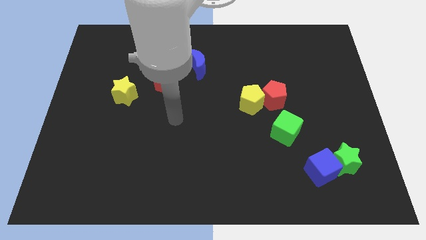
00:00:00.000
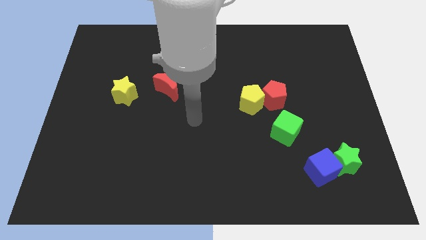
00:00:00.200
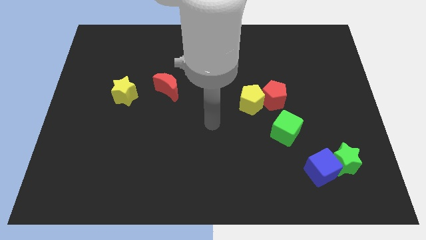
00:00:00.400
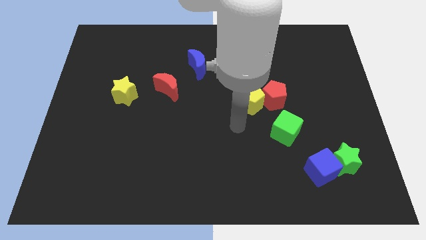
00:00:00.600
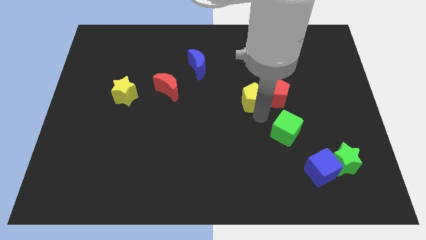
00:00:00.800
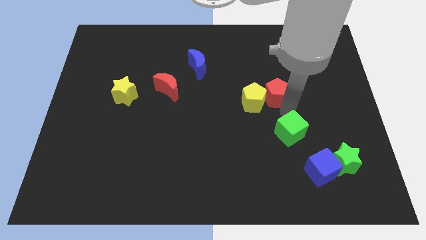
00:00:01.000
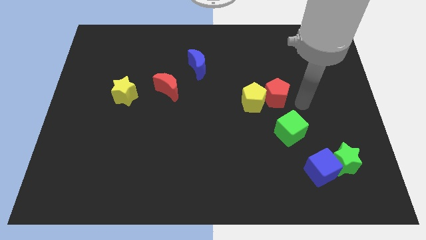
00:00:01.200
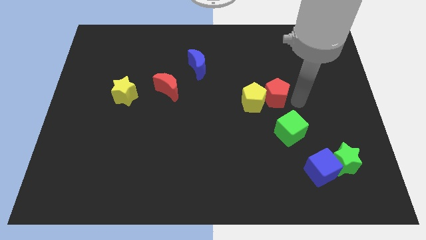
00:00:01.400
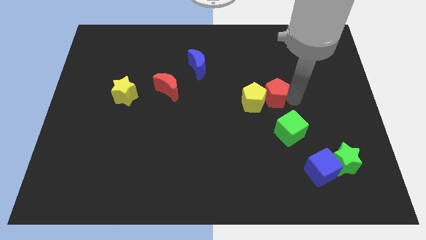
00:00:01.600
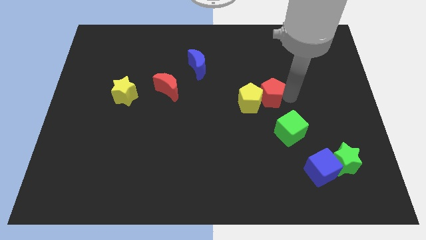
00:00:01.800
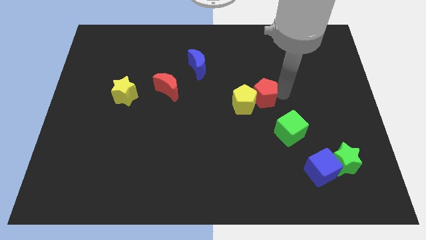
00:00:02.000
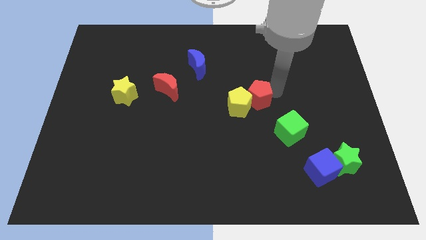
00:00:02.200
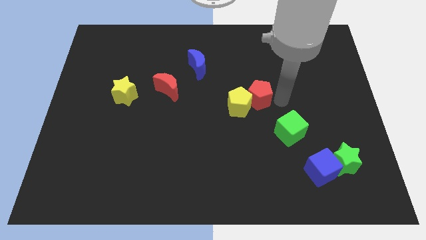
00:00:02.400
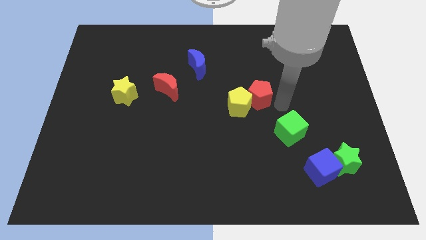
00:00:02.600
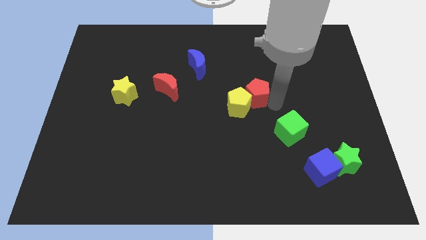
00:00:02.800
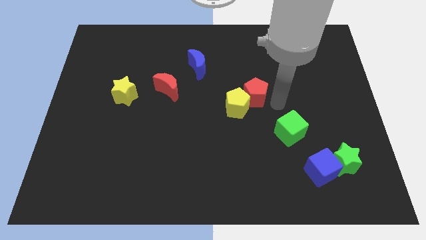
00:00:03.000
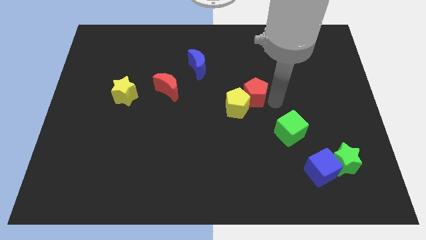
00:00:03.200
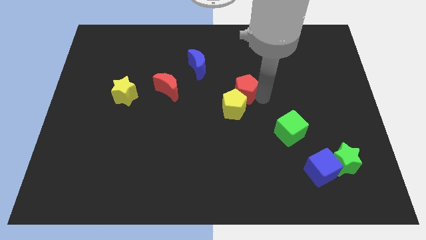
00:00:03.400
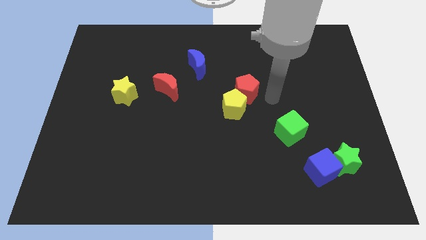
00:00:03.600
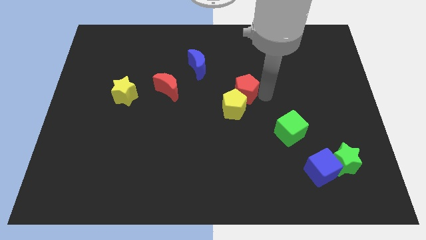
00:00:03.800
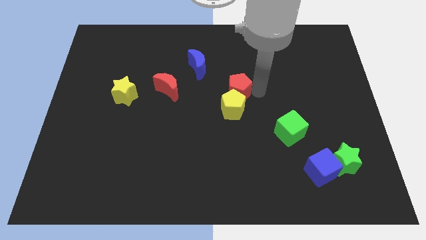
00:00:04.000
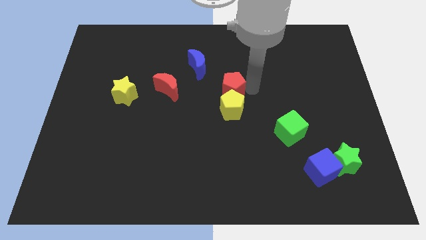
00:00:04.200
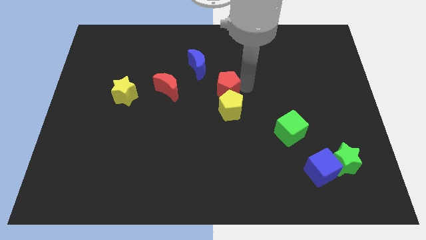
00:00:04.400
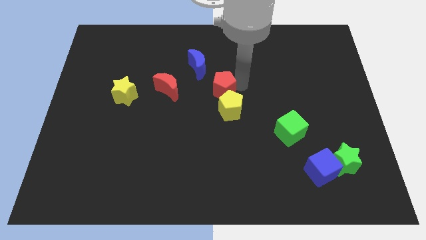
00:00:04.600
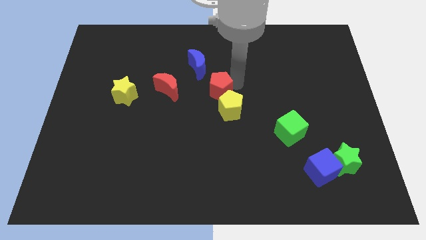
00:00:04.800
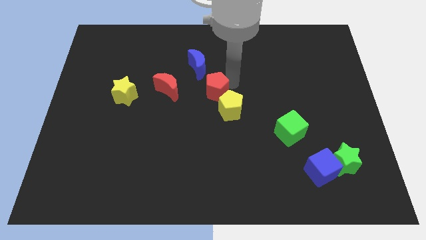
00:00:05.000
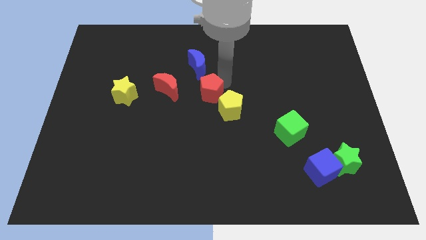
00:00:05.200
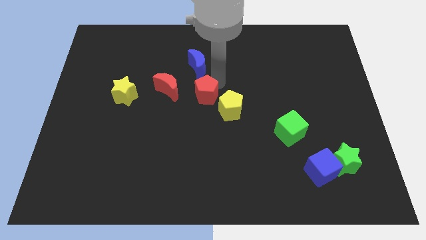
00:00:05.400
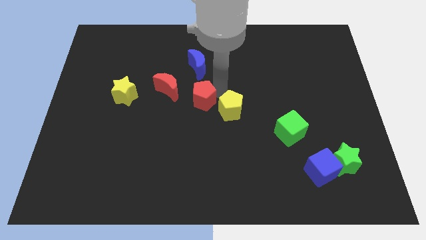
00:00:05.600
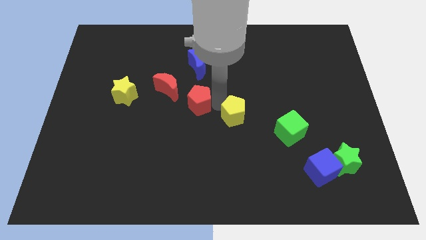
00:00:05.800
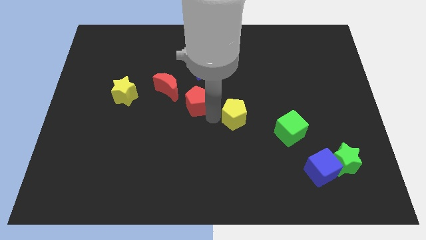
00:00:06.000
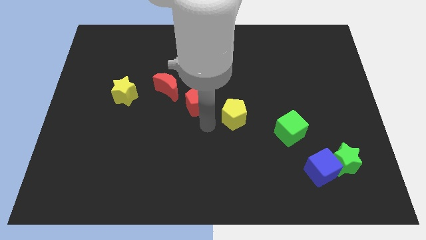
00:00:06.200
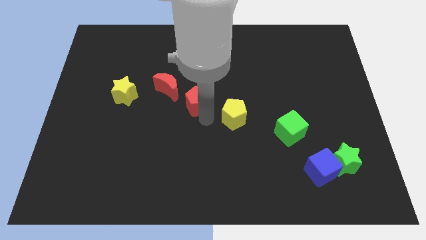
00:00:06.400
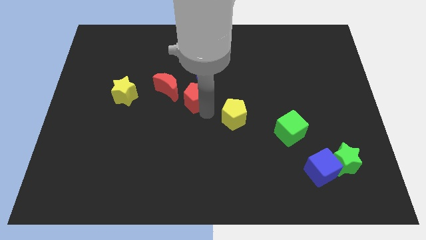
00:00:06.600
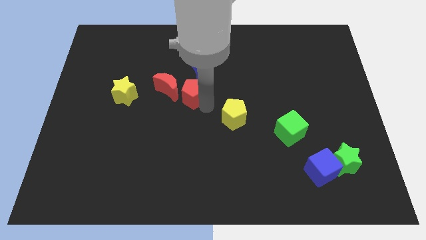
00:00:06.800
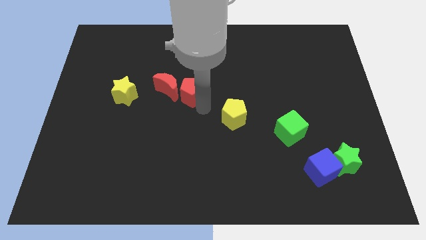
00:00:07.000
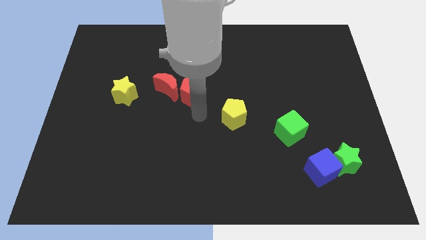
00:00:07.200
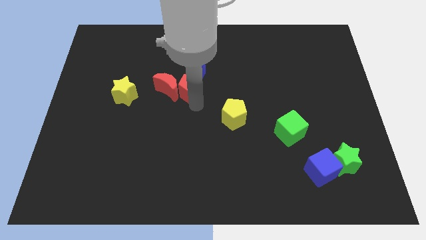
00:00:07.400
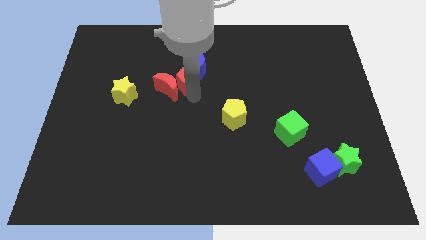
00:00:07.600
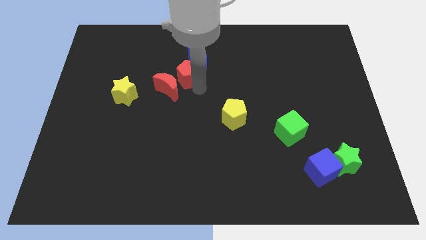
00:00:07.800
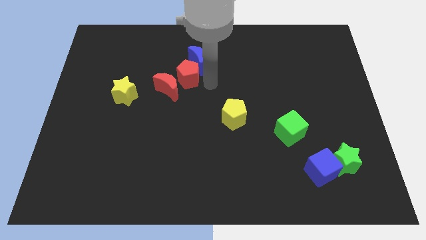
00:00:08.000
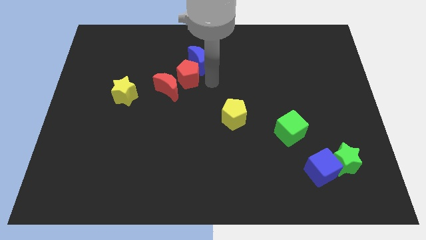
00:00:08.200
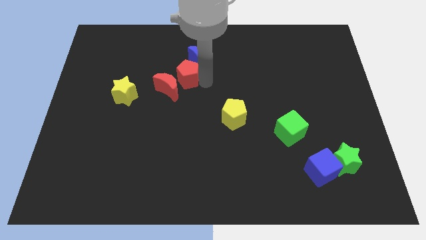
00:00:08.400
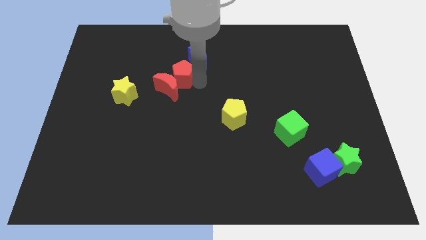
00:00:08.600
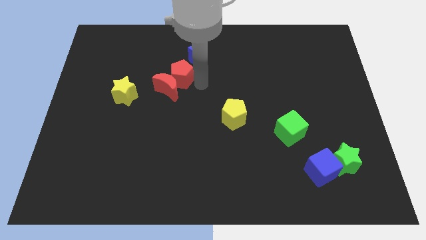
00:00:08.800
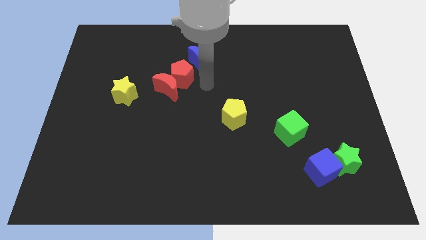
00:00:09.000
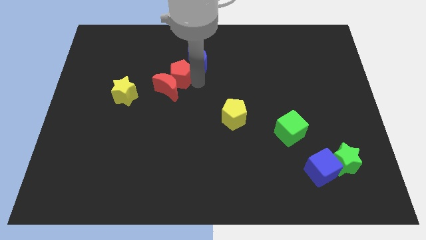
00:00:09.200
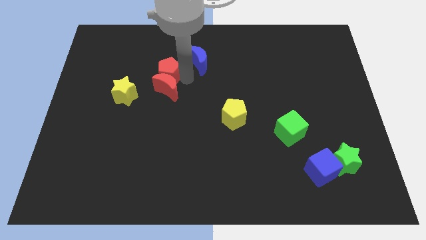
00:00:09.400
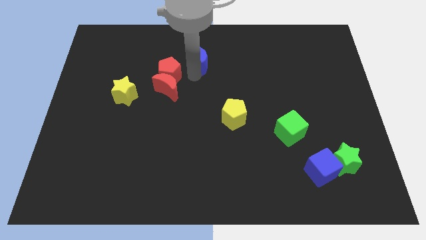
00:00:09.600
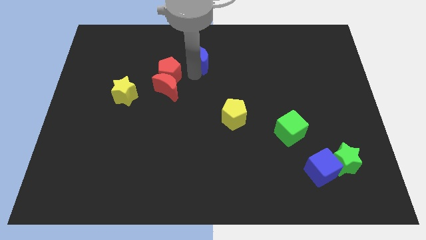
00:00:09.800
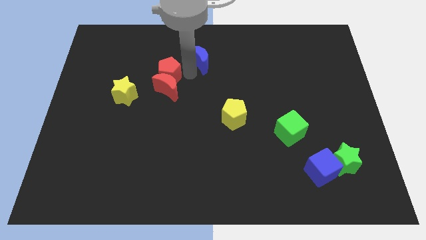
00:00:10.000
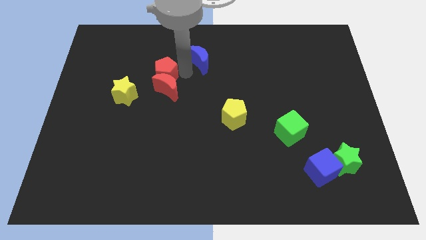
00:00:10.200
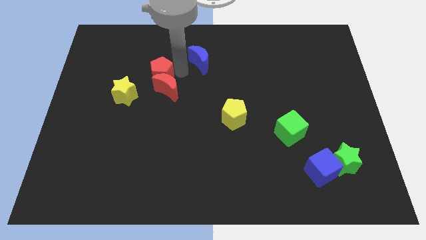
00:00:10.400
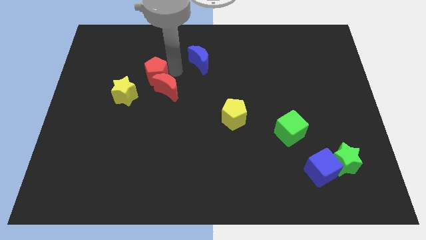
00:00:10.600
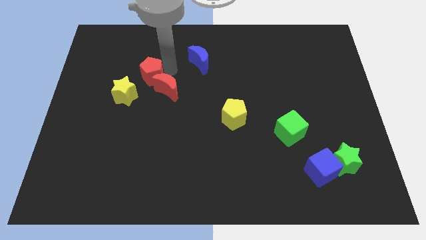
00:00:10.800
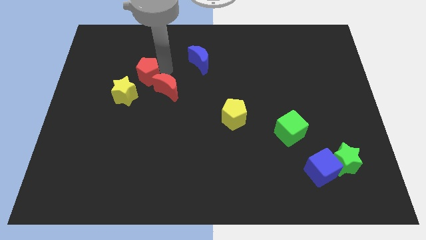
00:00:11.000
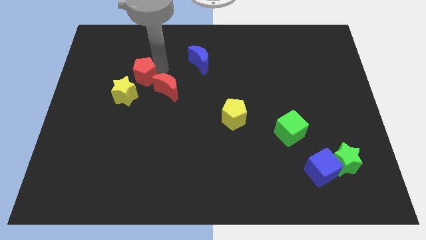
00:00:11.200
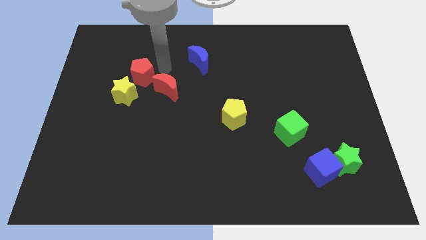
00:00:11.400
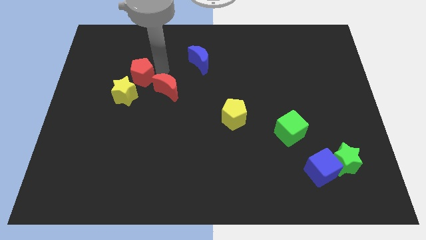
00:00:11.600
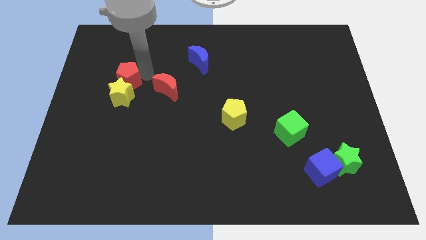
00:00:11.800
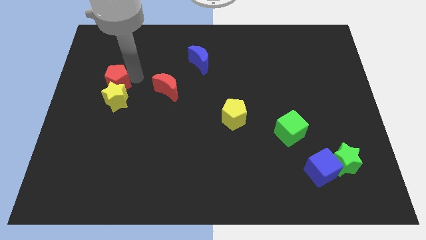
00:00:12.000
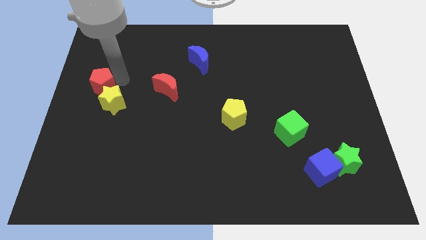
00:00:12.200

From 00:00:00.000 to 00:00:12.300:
put the red pentagon to the left side of the board

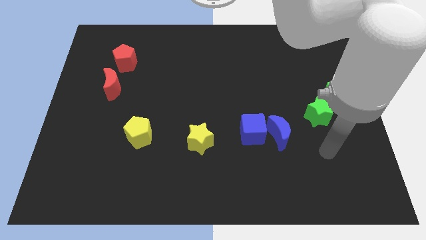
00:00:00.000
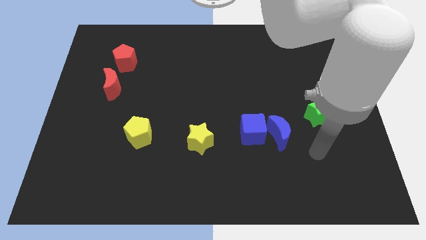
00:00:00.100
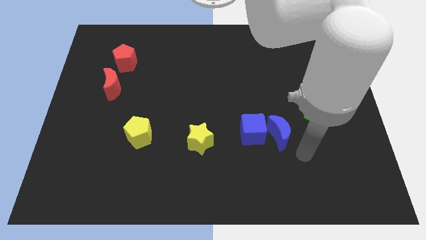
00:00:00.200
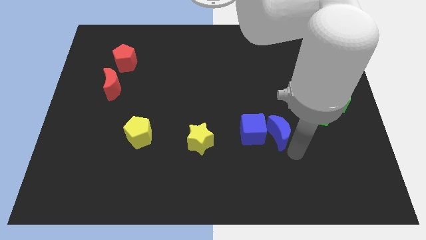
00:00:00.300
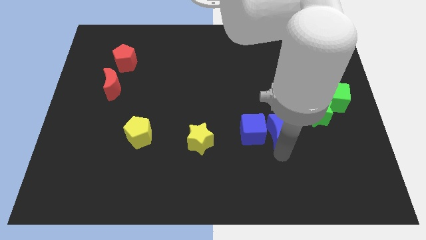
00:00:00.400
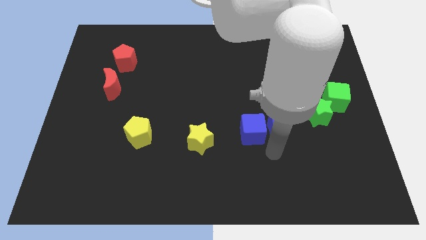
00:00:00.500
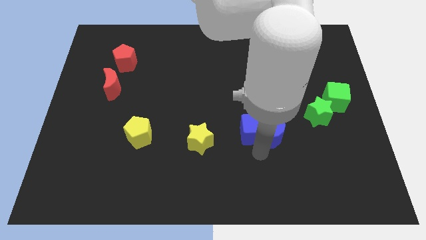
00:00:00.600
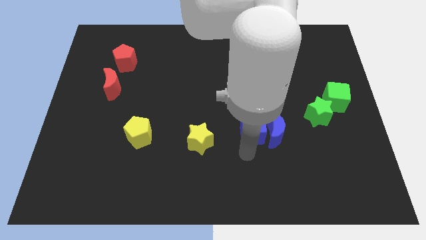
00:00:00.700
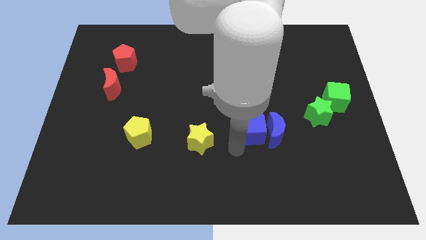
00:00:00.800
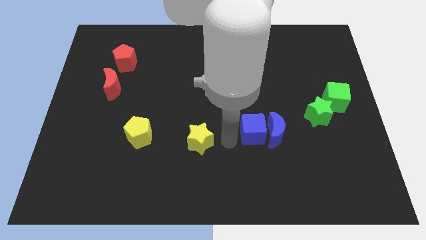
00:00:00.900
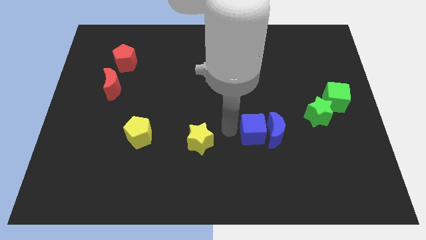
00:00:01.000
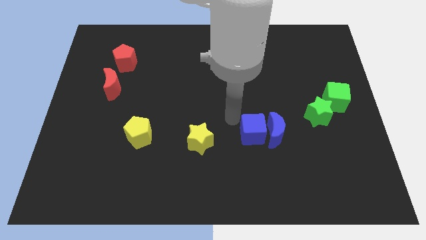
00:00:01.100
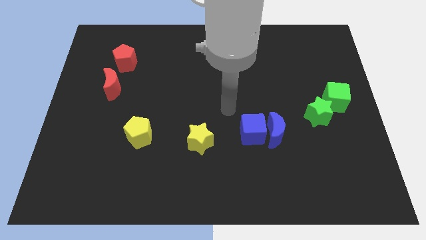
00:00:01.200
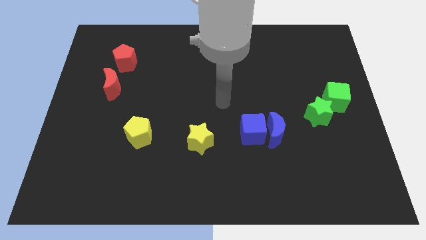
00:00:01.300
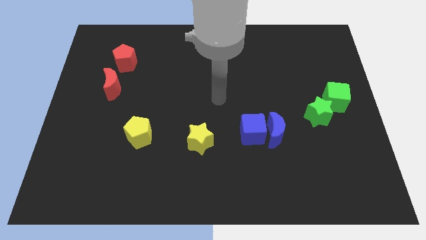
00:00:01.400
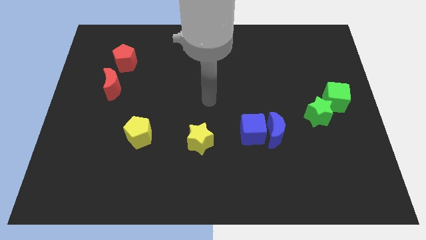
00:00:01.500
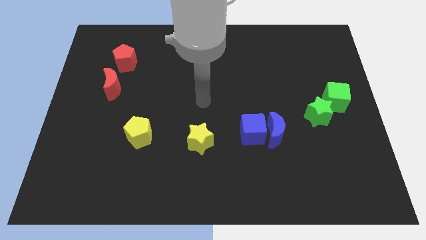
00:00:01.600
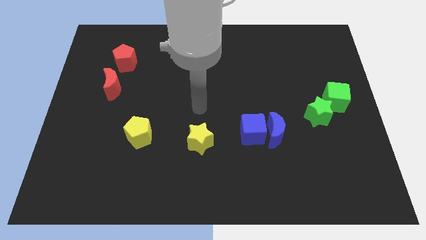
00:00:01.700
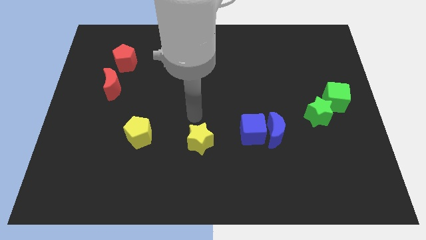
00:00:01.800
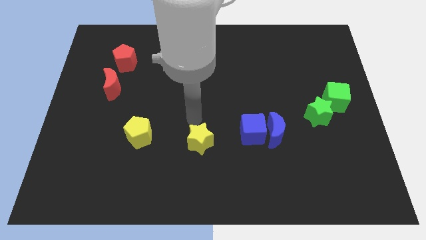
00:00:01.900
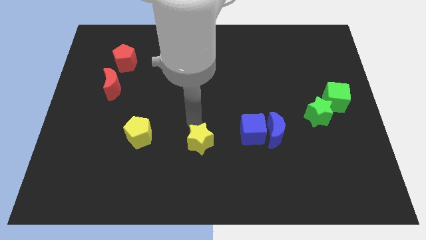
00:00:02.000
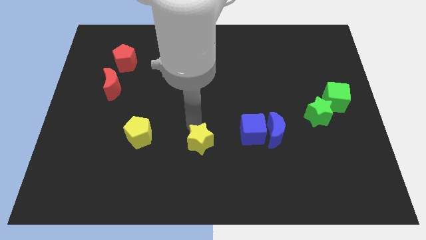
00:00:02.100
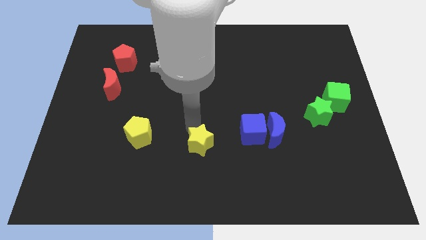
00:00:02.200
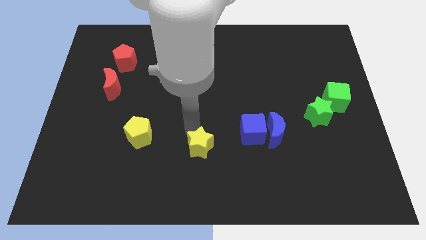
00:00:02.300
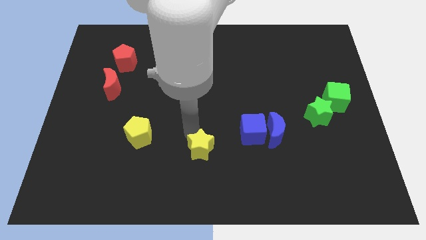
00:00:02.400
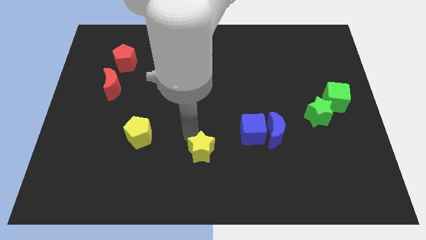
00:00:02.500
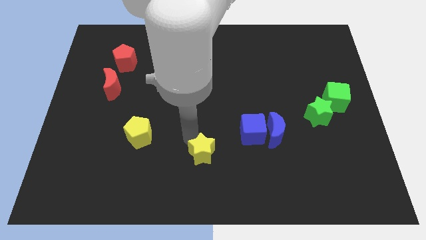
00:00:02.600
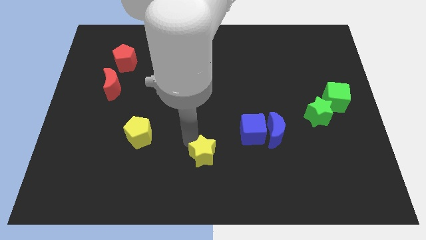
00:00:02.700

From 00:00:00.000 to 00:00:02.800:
push the yellow star to the bottom
